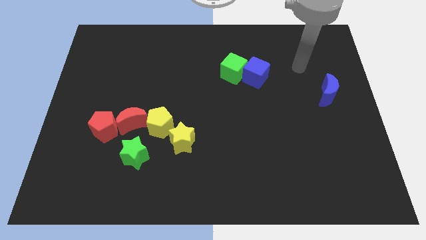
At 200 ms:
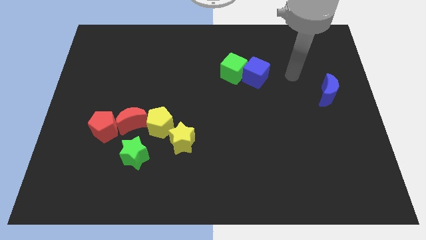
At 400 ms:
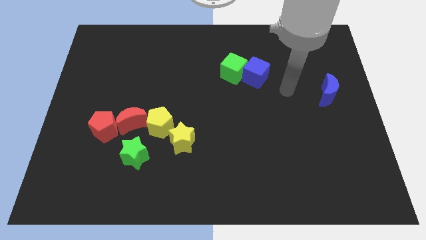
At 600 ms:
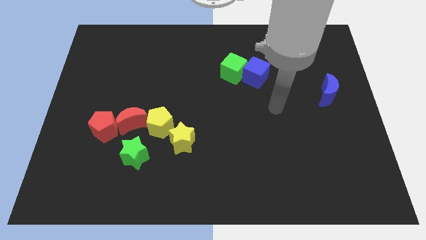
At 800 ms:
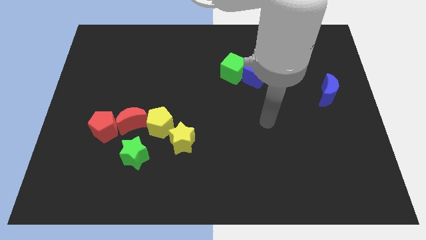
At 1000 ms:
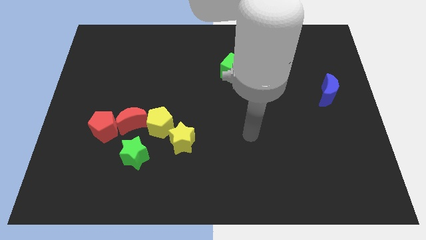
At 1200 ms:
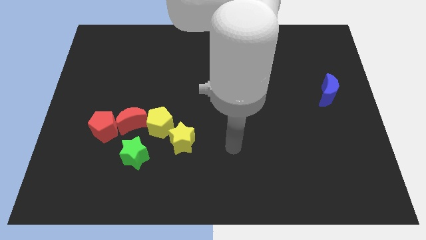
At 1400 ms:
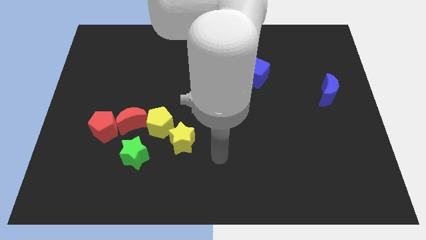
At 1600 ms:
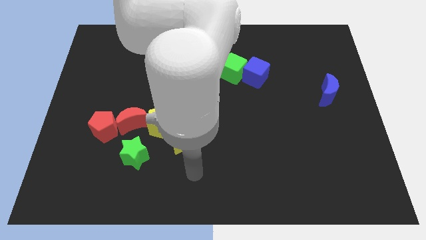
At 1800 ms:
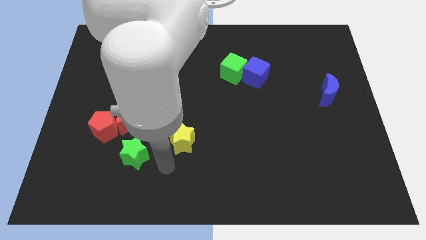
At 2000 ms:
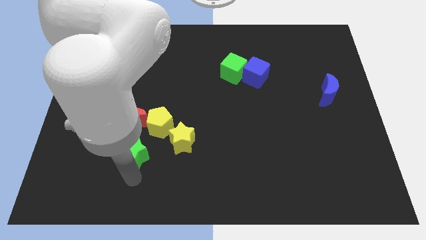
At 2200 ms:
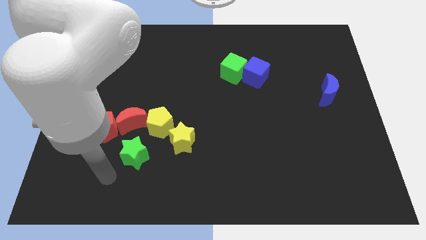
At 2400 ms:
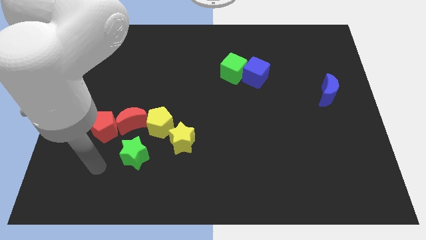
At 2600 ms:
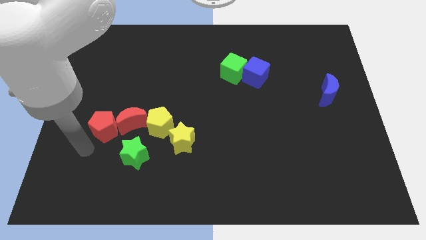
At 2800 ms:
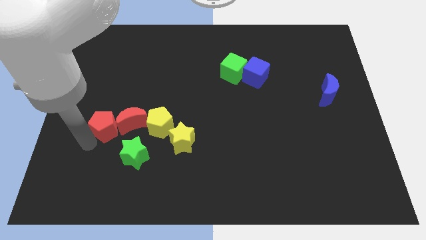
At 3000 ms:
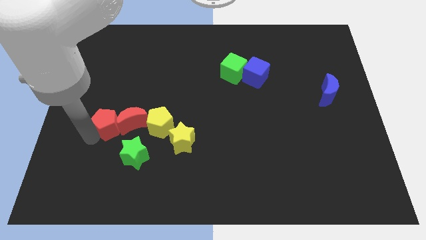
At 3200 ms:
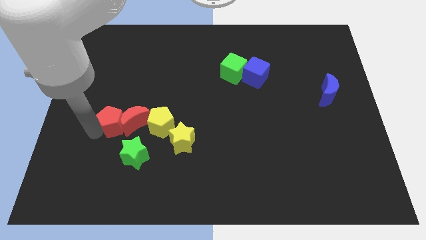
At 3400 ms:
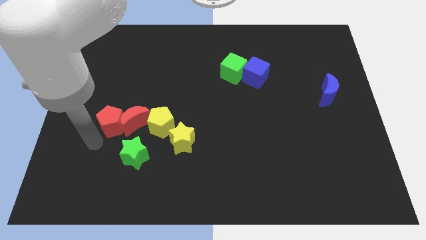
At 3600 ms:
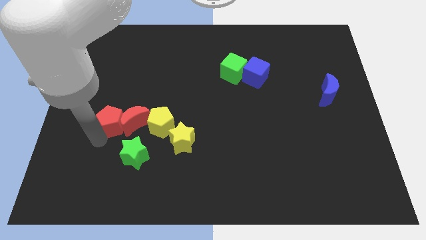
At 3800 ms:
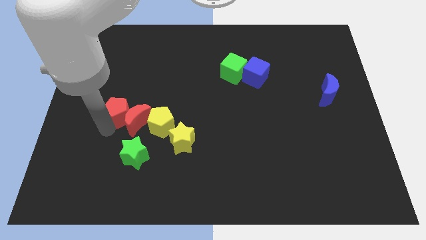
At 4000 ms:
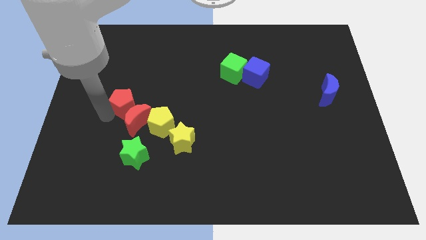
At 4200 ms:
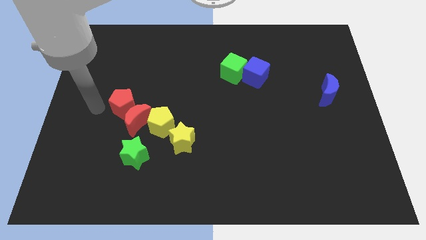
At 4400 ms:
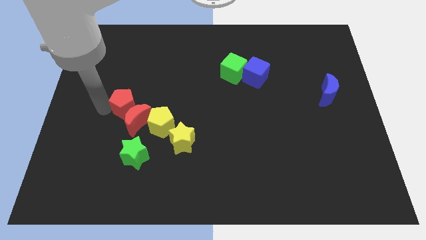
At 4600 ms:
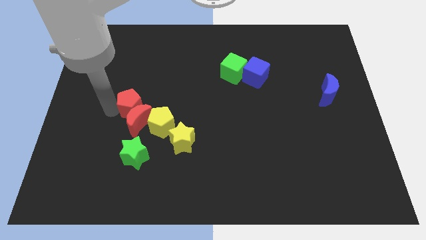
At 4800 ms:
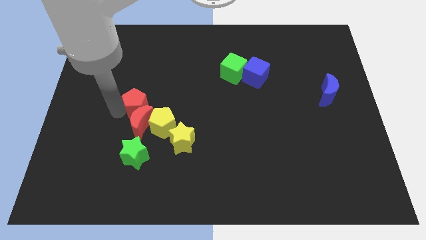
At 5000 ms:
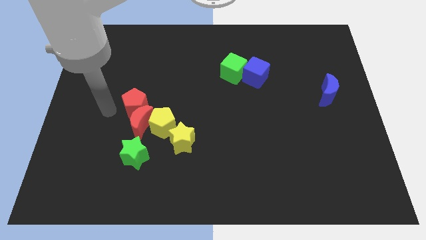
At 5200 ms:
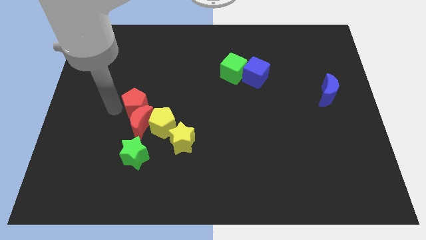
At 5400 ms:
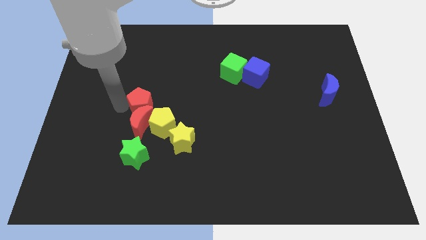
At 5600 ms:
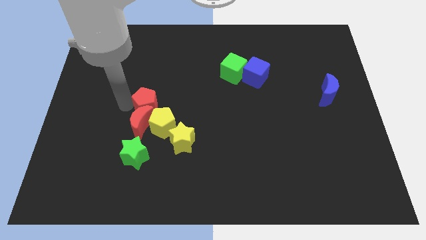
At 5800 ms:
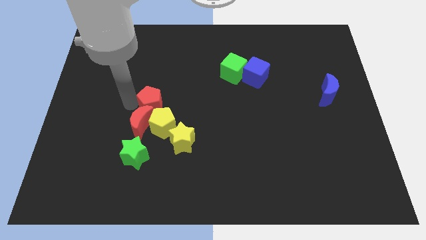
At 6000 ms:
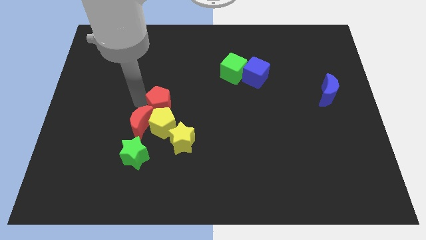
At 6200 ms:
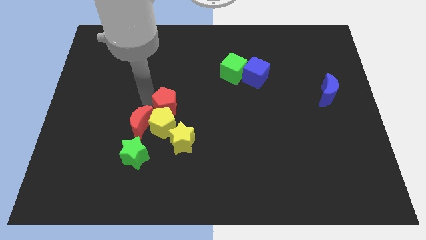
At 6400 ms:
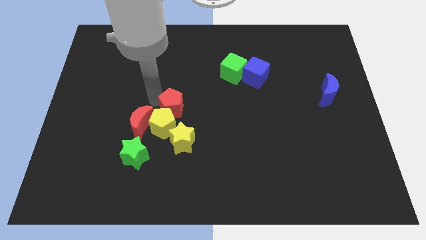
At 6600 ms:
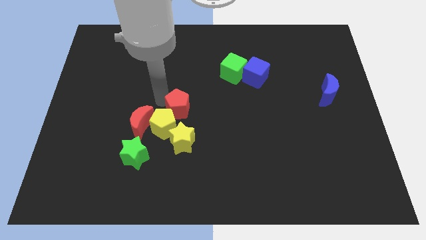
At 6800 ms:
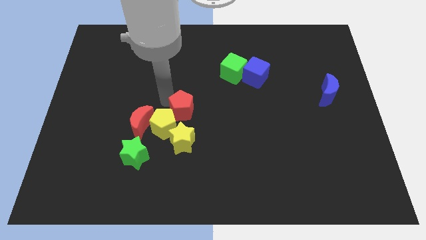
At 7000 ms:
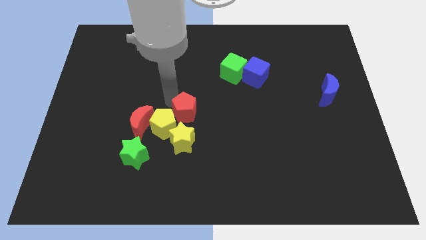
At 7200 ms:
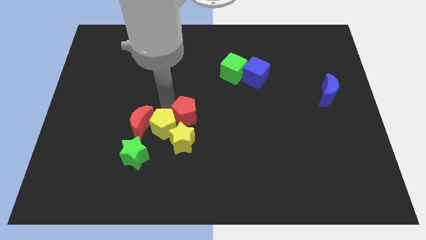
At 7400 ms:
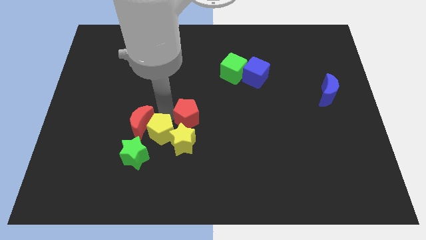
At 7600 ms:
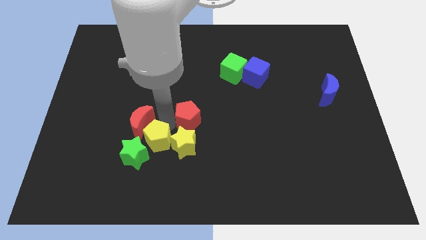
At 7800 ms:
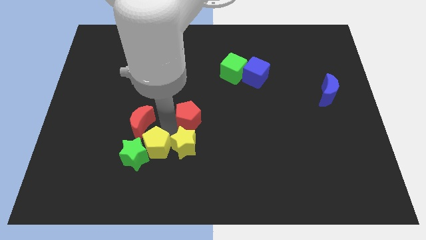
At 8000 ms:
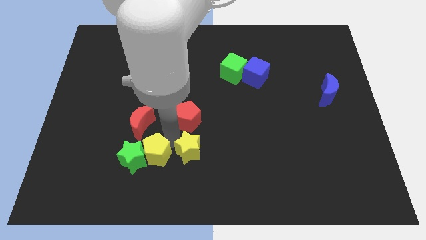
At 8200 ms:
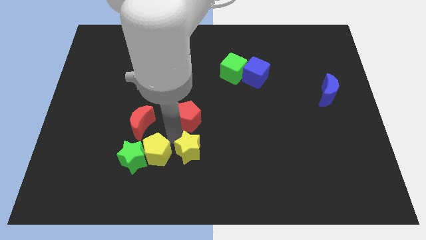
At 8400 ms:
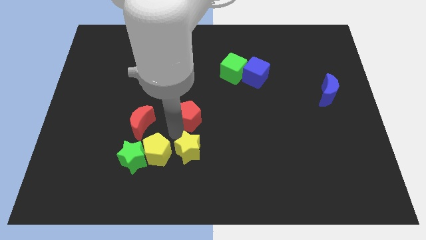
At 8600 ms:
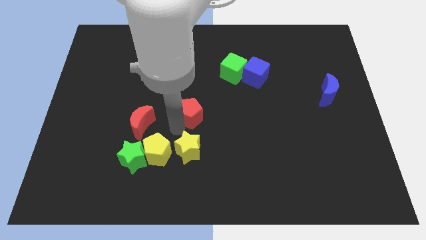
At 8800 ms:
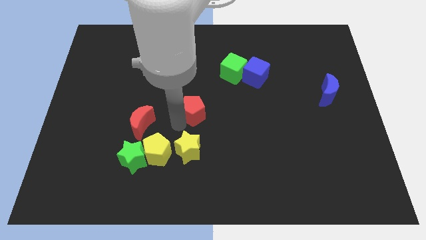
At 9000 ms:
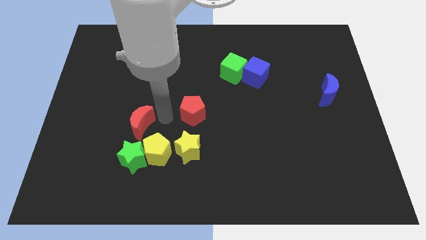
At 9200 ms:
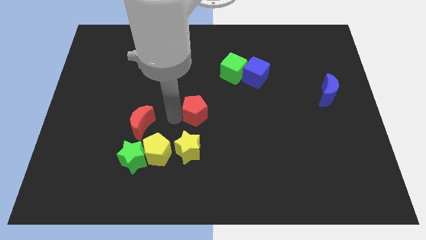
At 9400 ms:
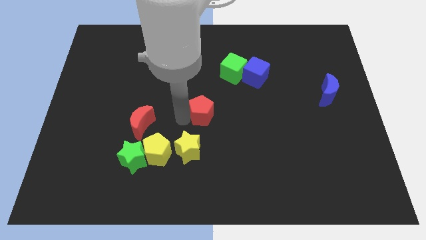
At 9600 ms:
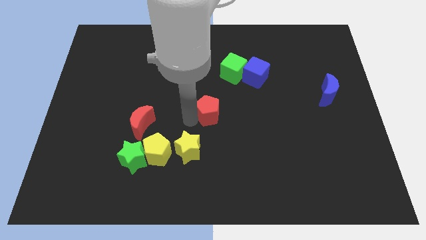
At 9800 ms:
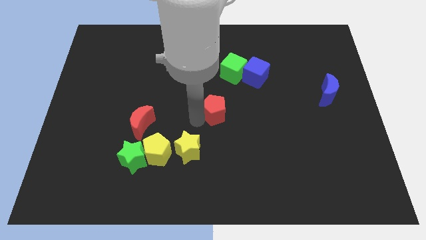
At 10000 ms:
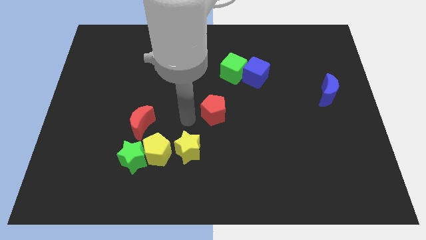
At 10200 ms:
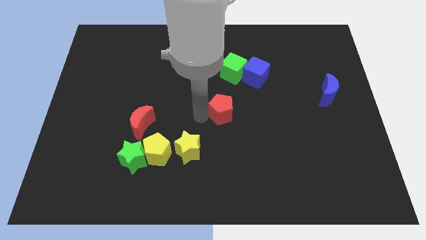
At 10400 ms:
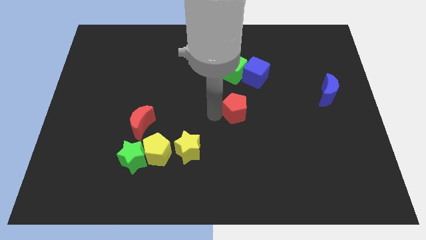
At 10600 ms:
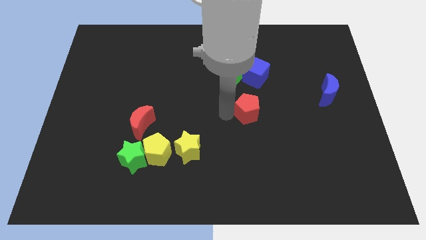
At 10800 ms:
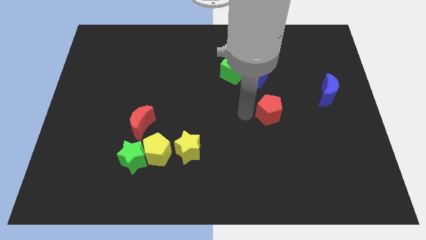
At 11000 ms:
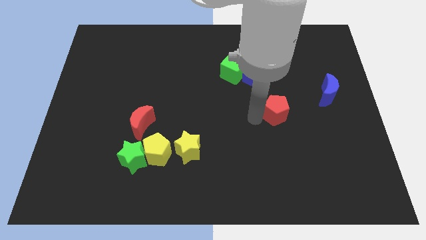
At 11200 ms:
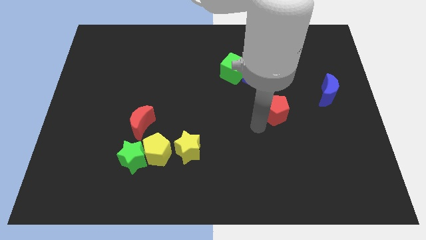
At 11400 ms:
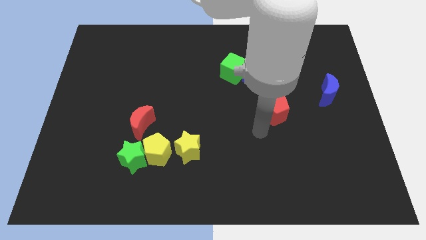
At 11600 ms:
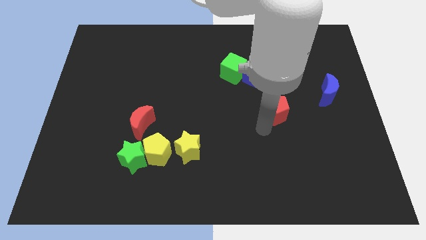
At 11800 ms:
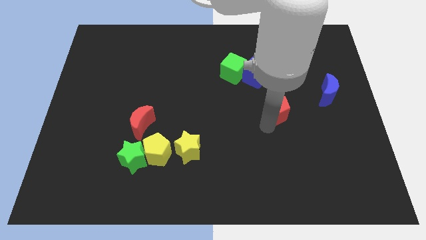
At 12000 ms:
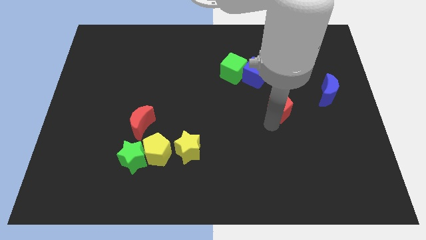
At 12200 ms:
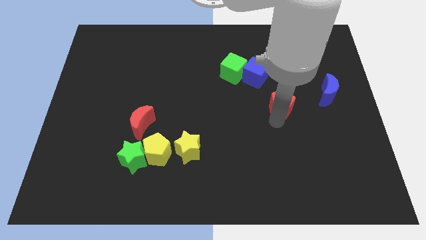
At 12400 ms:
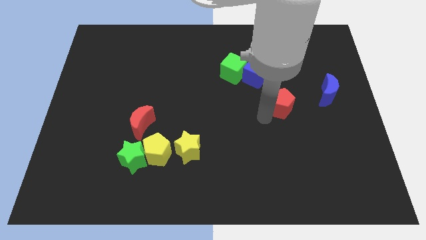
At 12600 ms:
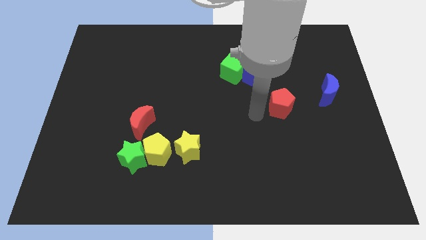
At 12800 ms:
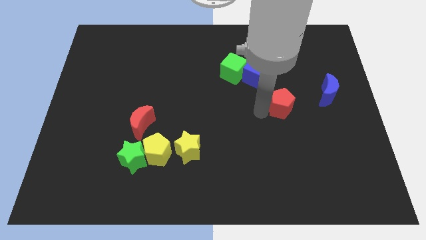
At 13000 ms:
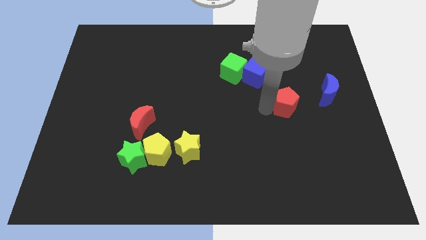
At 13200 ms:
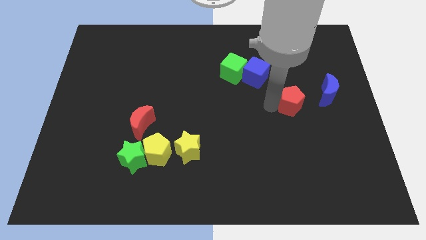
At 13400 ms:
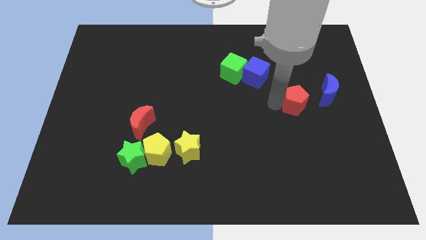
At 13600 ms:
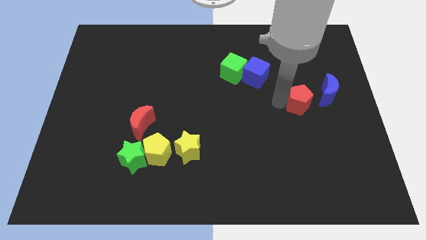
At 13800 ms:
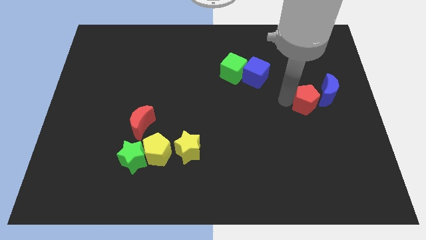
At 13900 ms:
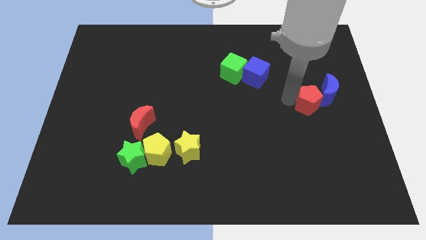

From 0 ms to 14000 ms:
move the red pentagon towards the blue moon

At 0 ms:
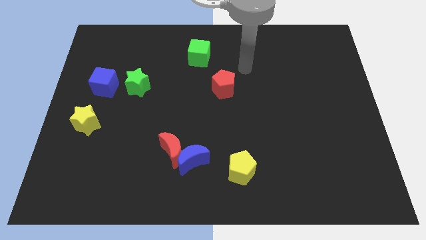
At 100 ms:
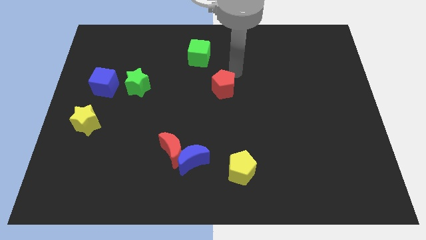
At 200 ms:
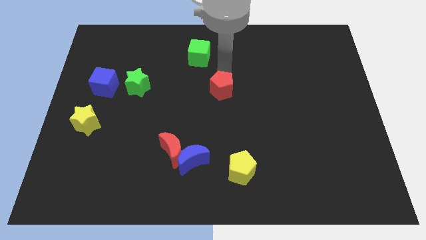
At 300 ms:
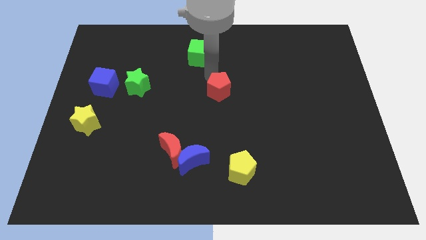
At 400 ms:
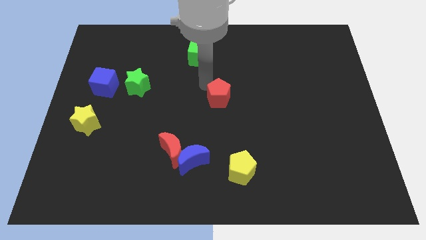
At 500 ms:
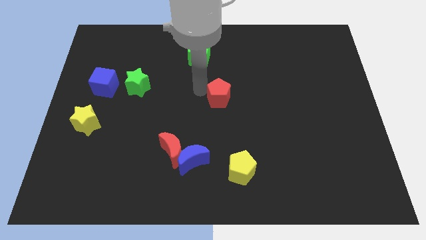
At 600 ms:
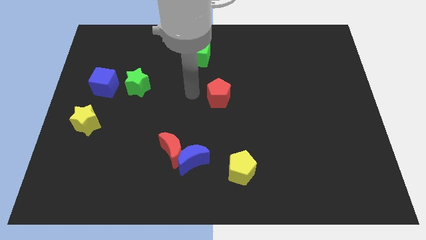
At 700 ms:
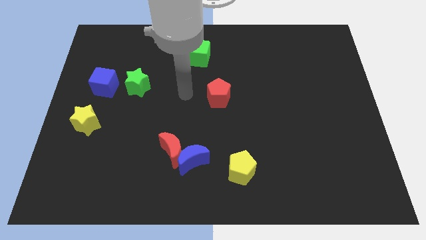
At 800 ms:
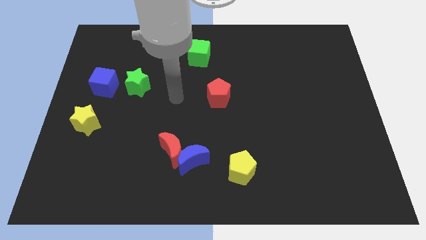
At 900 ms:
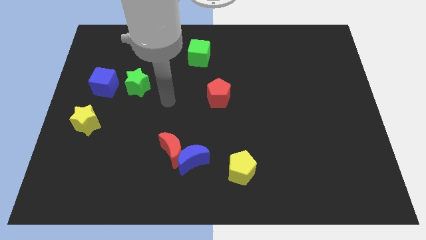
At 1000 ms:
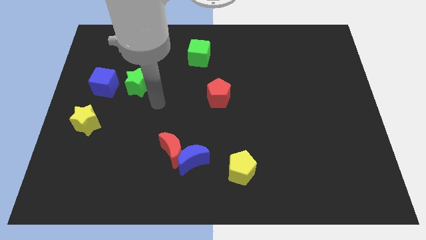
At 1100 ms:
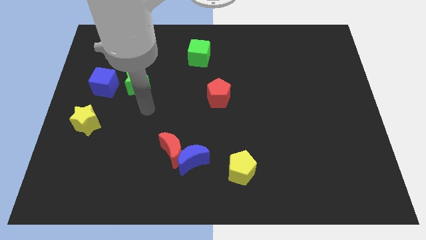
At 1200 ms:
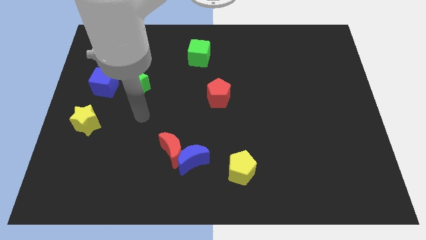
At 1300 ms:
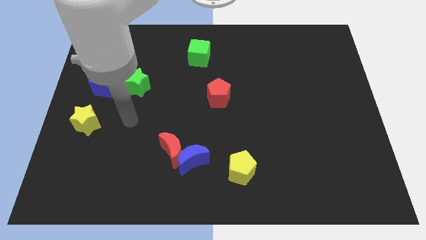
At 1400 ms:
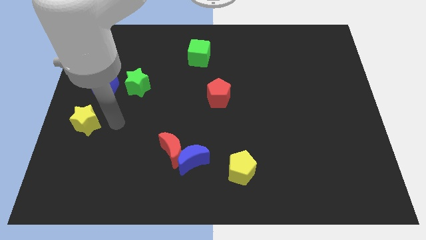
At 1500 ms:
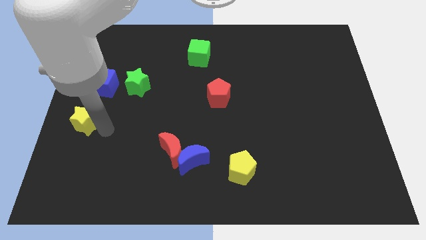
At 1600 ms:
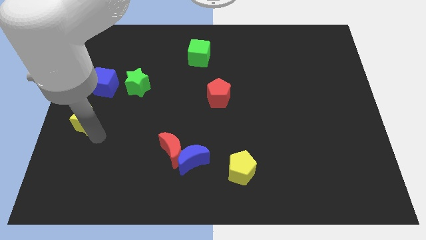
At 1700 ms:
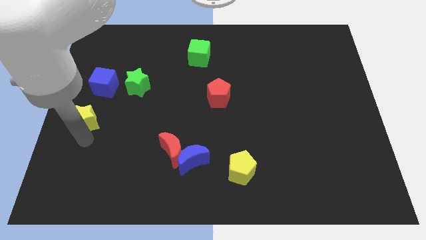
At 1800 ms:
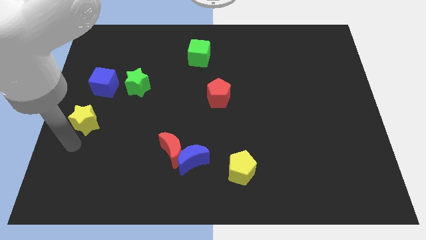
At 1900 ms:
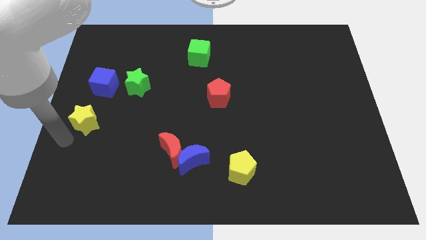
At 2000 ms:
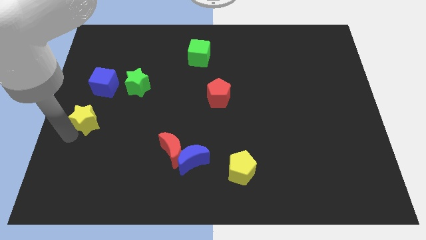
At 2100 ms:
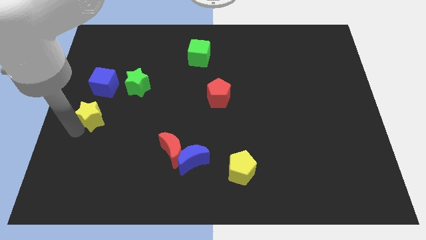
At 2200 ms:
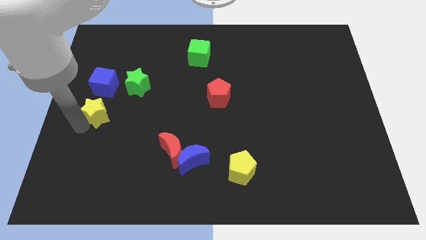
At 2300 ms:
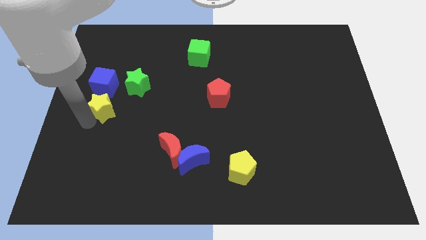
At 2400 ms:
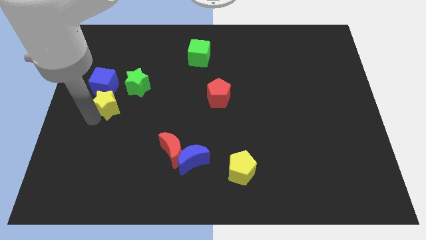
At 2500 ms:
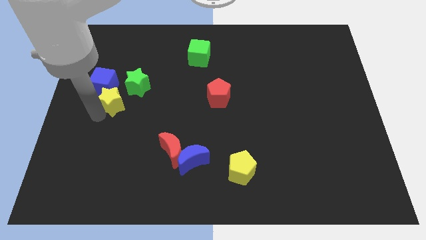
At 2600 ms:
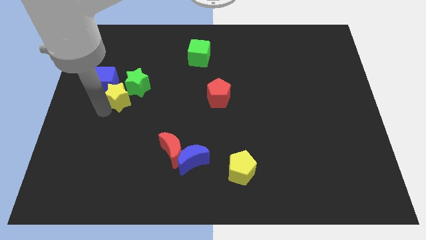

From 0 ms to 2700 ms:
slide the yellow star to the green star
